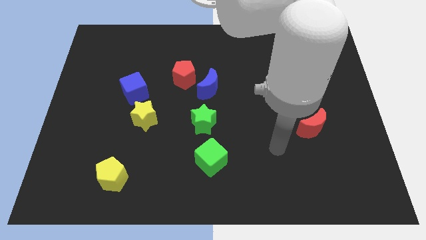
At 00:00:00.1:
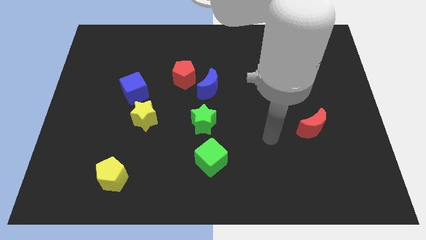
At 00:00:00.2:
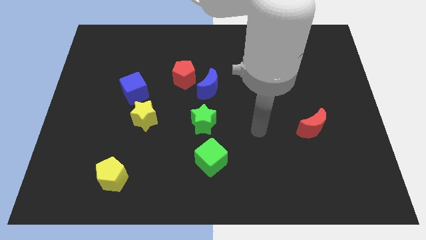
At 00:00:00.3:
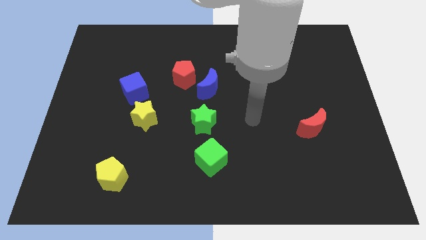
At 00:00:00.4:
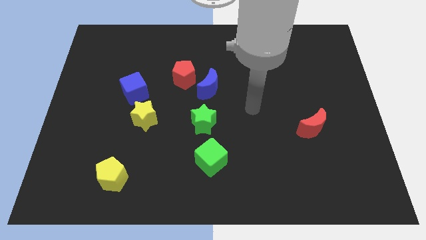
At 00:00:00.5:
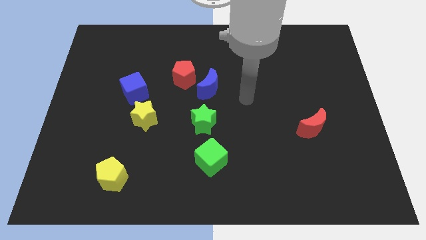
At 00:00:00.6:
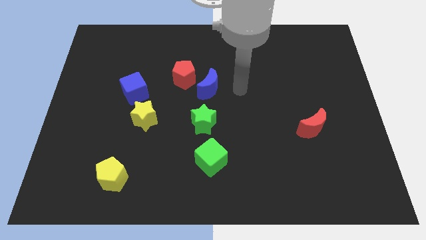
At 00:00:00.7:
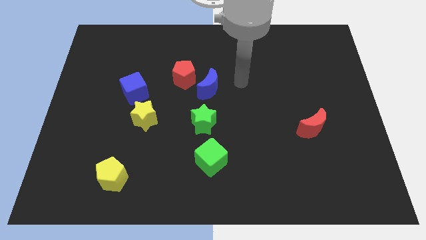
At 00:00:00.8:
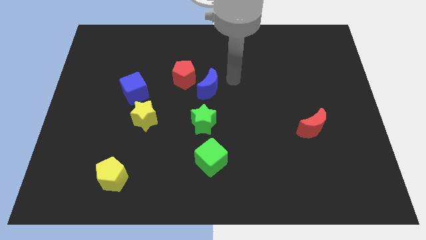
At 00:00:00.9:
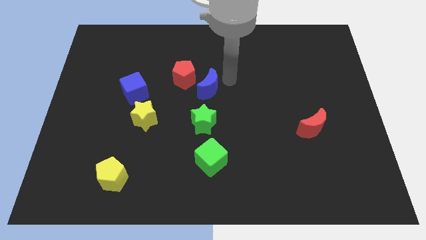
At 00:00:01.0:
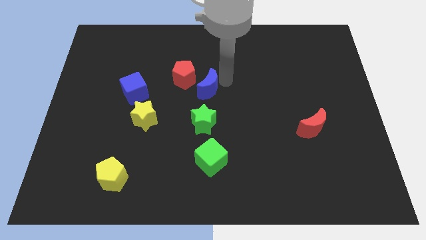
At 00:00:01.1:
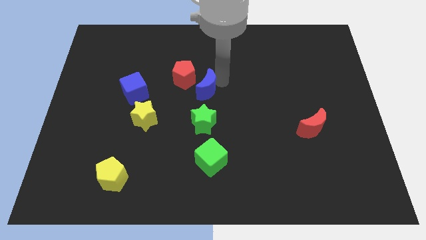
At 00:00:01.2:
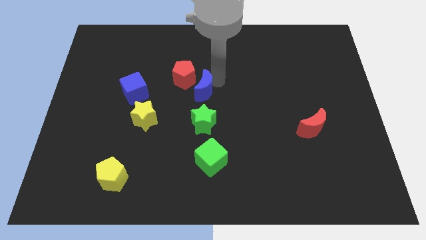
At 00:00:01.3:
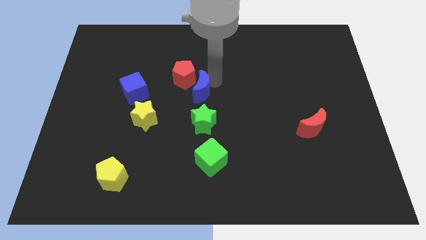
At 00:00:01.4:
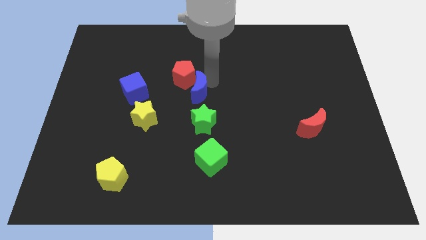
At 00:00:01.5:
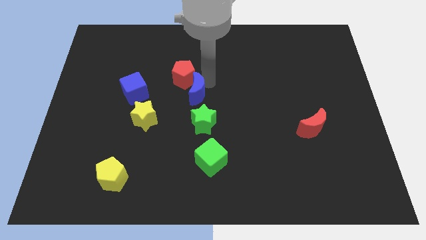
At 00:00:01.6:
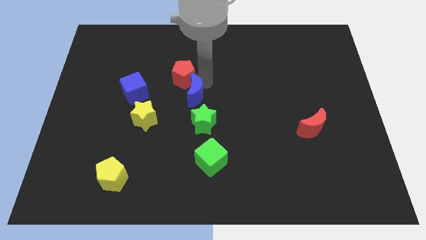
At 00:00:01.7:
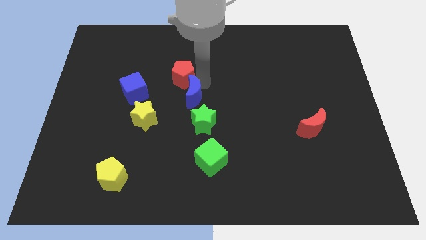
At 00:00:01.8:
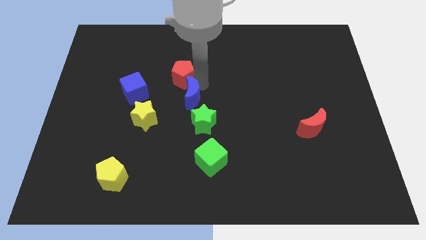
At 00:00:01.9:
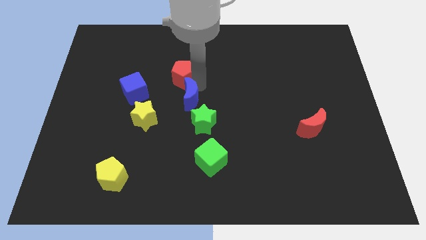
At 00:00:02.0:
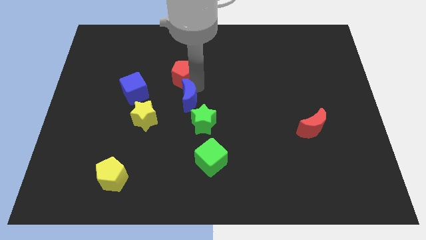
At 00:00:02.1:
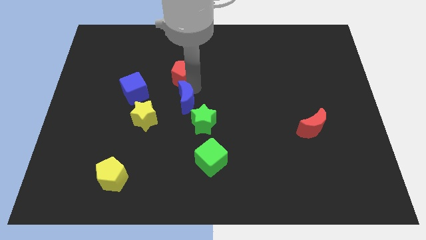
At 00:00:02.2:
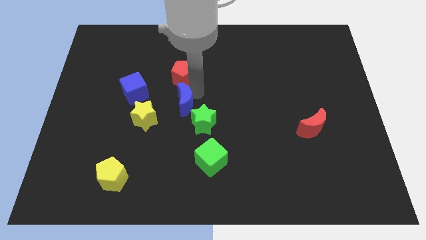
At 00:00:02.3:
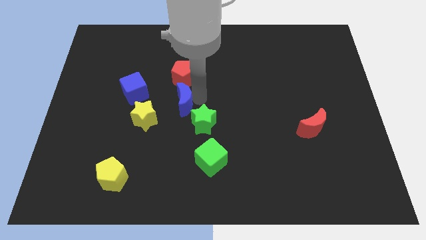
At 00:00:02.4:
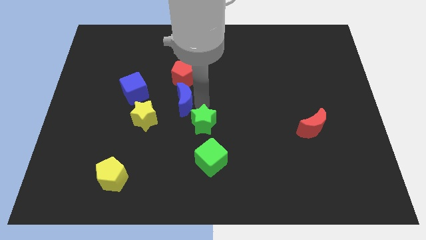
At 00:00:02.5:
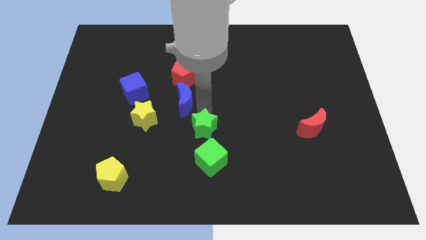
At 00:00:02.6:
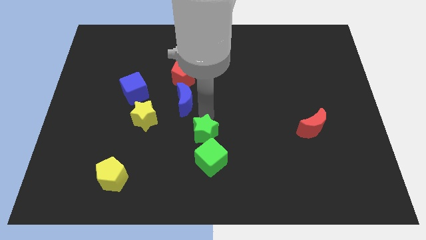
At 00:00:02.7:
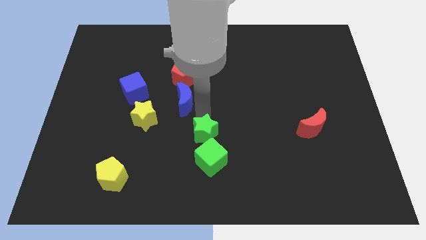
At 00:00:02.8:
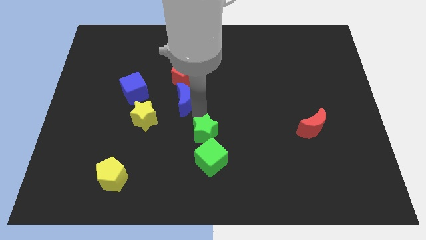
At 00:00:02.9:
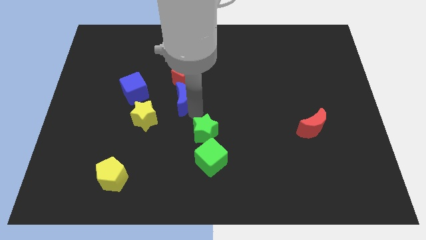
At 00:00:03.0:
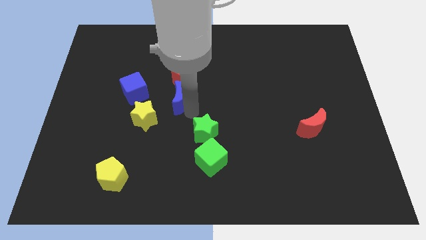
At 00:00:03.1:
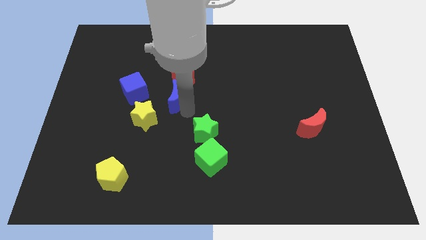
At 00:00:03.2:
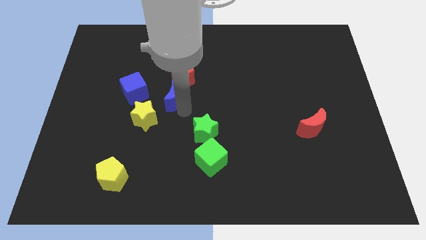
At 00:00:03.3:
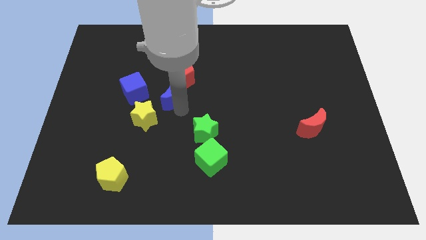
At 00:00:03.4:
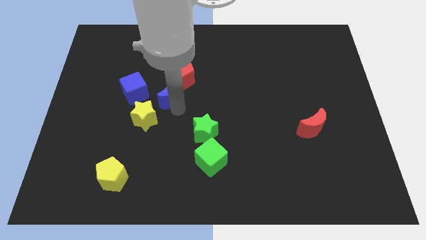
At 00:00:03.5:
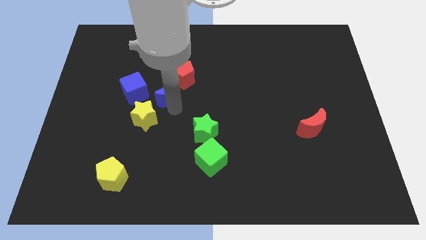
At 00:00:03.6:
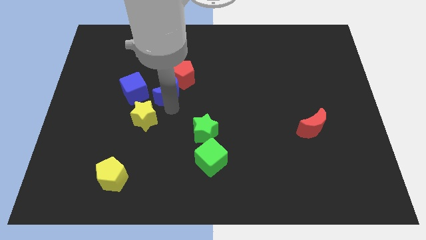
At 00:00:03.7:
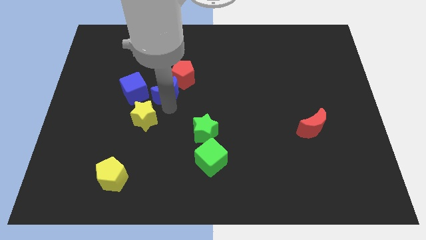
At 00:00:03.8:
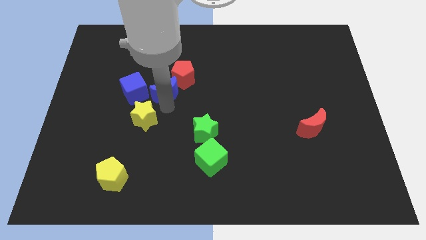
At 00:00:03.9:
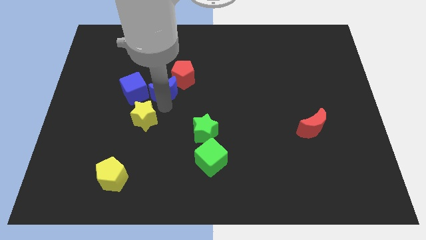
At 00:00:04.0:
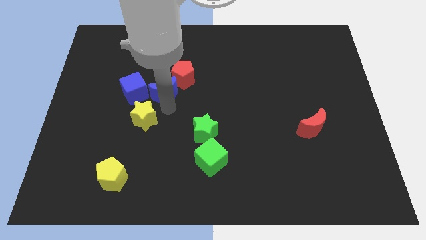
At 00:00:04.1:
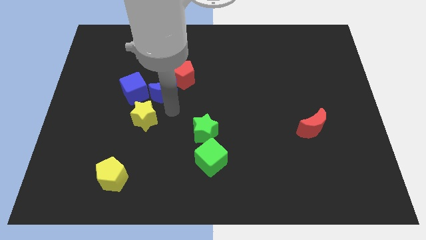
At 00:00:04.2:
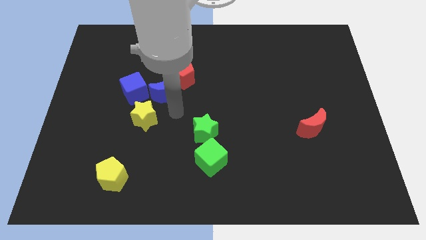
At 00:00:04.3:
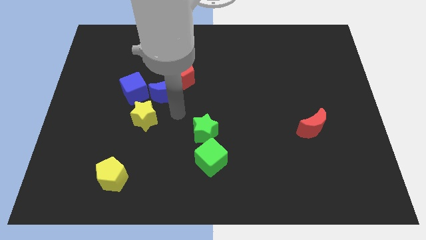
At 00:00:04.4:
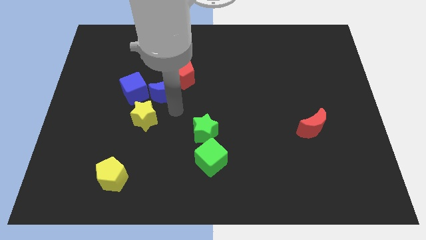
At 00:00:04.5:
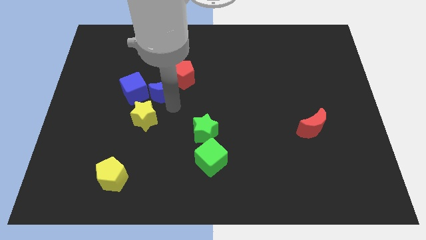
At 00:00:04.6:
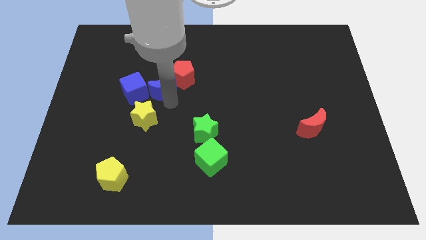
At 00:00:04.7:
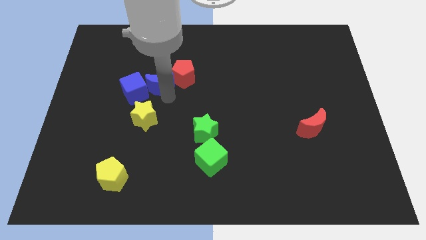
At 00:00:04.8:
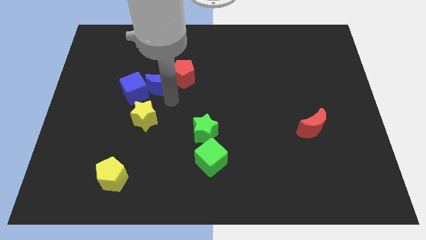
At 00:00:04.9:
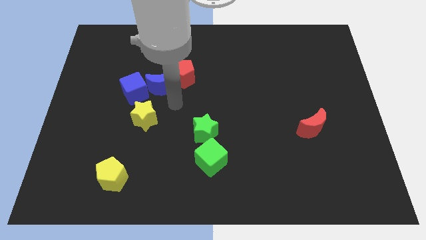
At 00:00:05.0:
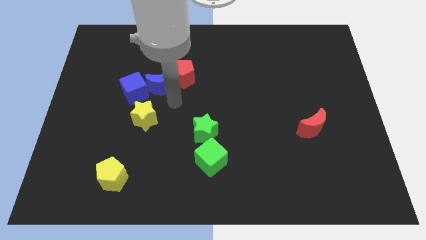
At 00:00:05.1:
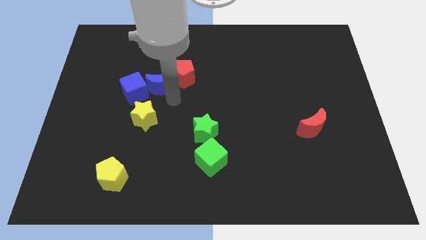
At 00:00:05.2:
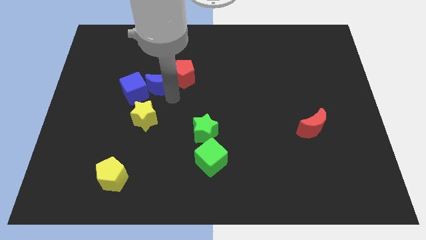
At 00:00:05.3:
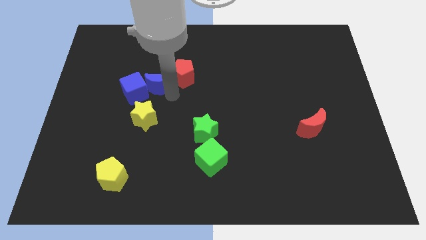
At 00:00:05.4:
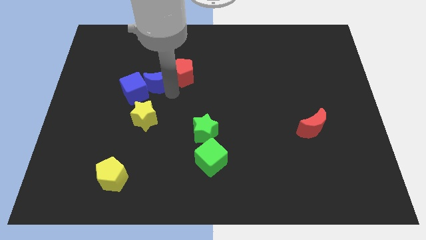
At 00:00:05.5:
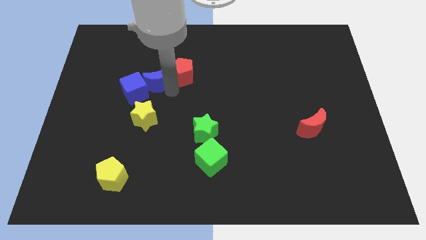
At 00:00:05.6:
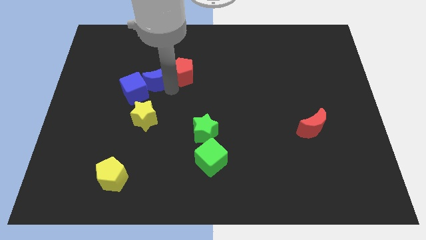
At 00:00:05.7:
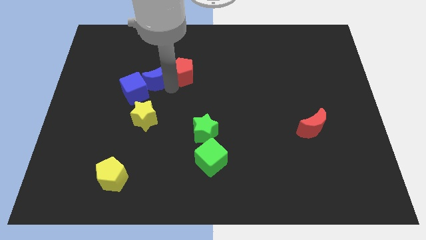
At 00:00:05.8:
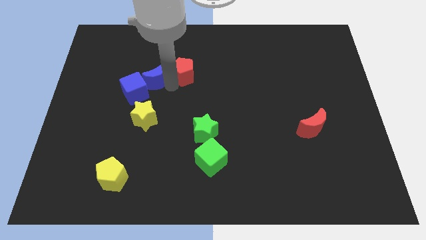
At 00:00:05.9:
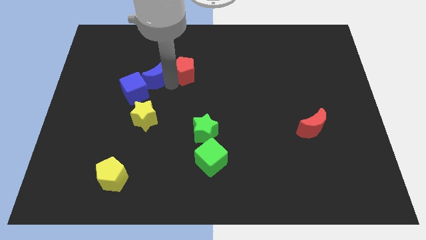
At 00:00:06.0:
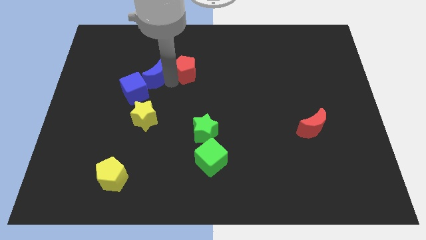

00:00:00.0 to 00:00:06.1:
push the blue moon to the top side of the blue cube
